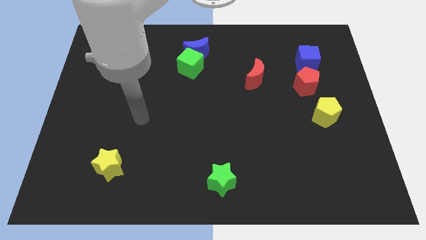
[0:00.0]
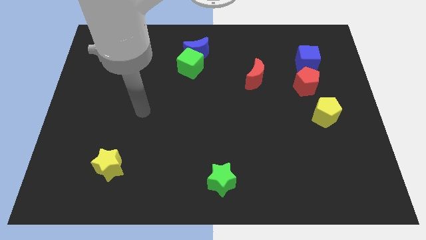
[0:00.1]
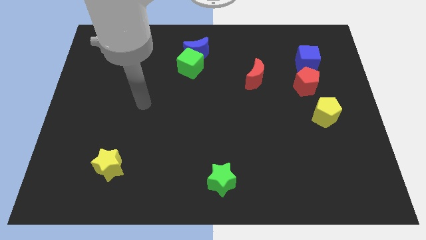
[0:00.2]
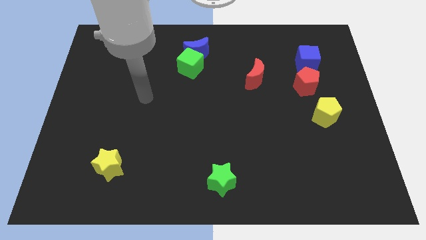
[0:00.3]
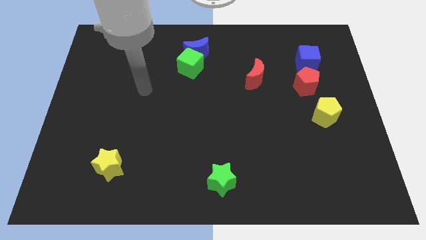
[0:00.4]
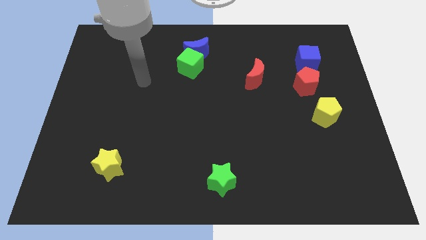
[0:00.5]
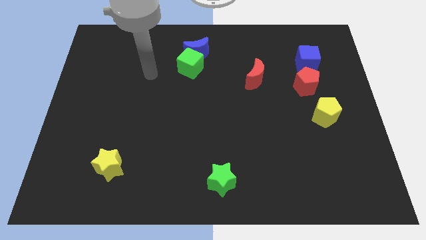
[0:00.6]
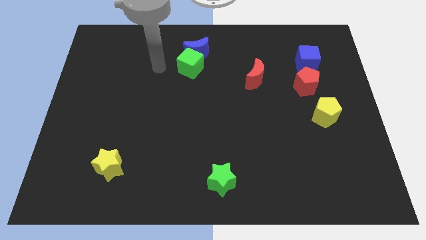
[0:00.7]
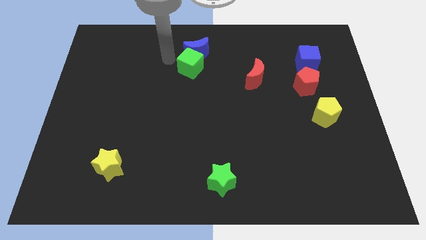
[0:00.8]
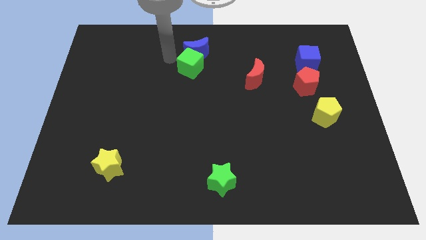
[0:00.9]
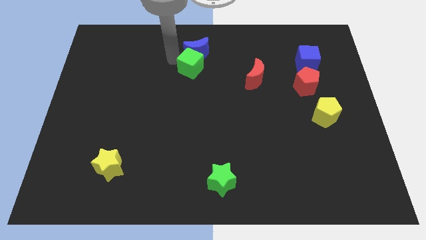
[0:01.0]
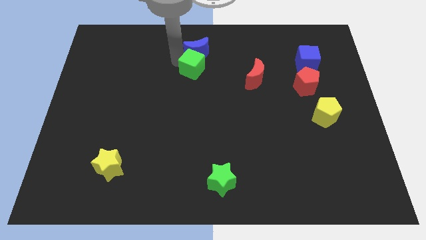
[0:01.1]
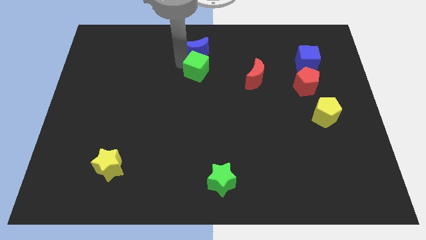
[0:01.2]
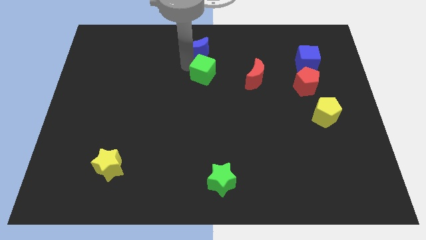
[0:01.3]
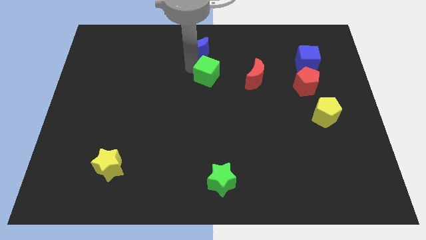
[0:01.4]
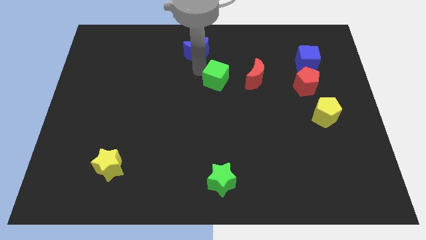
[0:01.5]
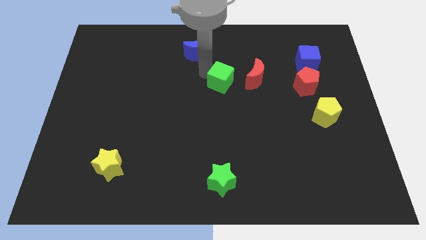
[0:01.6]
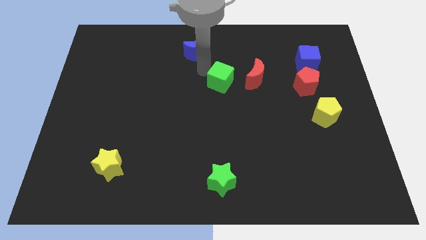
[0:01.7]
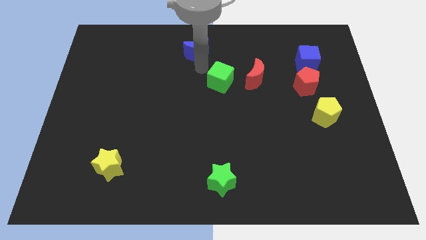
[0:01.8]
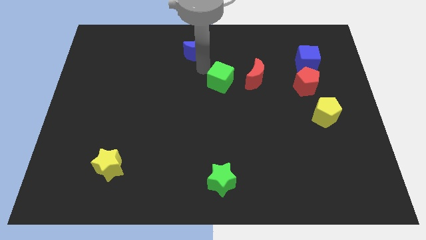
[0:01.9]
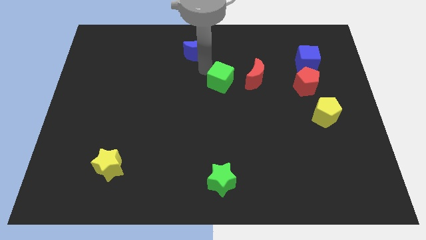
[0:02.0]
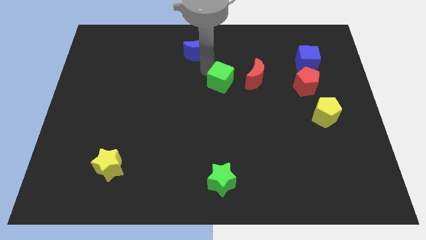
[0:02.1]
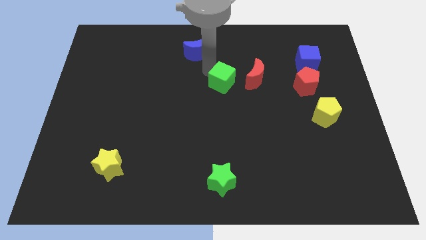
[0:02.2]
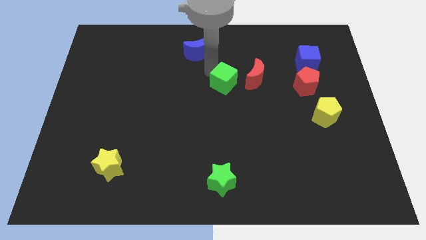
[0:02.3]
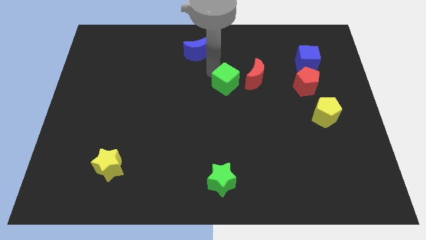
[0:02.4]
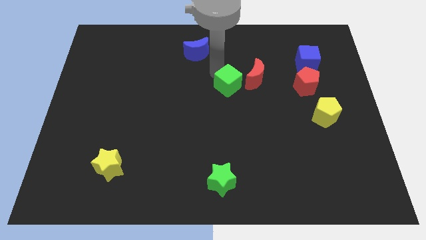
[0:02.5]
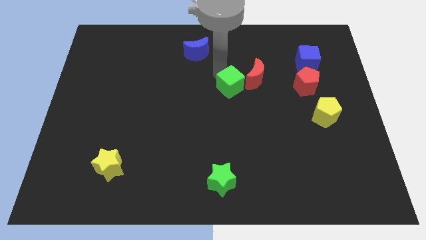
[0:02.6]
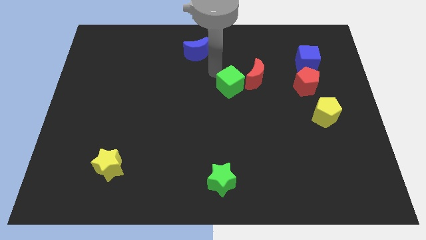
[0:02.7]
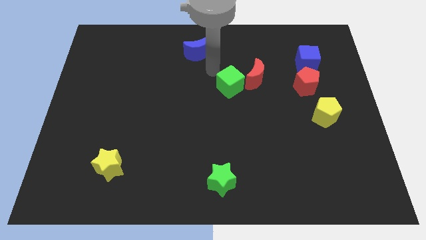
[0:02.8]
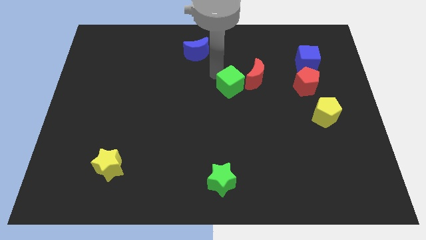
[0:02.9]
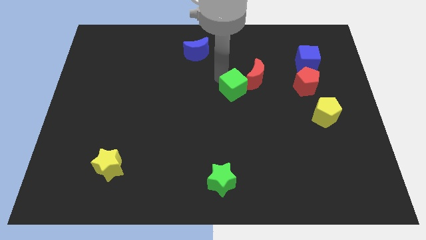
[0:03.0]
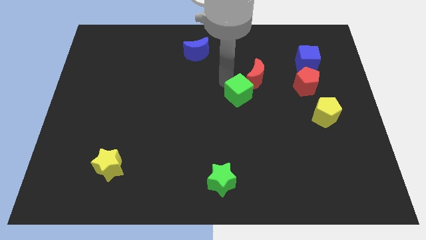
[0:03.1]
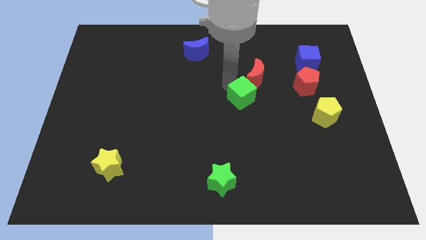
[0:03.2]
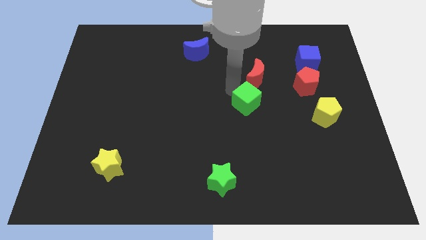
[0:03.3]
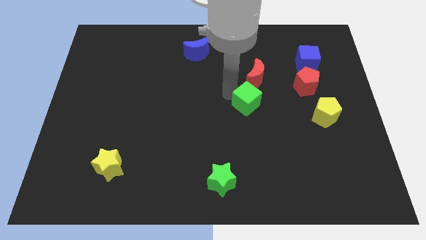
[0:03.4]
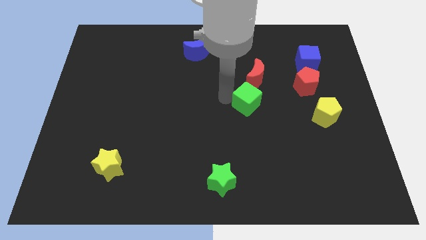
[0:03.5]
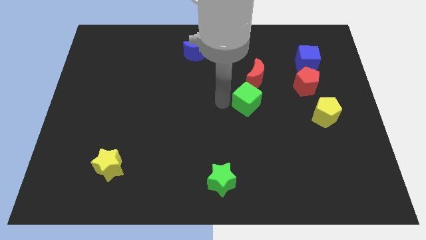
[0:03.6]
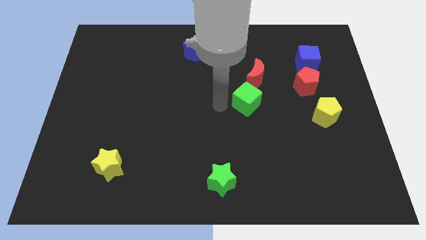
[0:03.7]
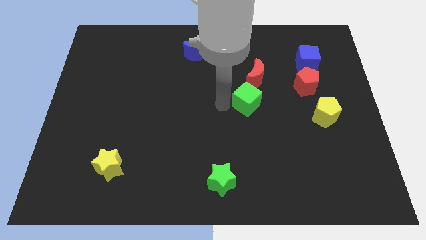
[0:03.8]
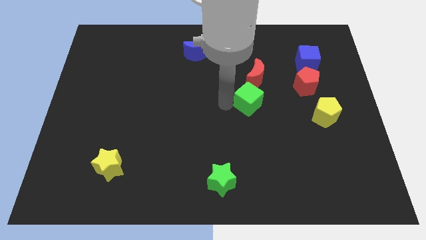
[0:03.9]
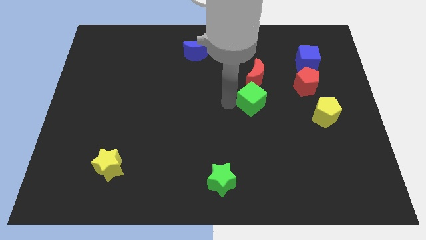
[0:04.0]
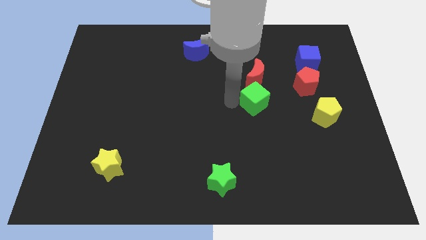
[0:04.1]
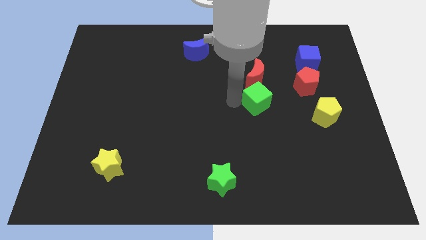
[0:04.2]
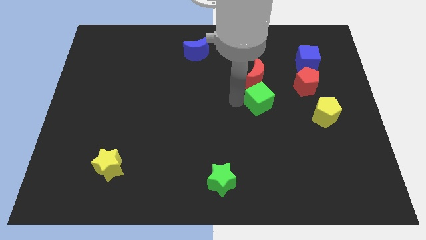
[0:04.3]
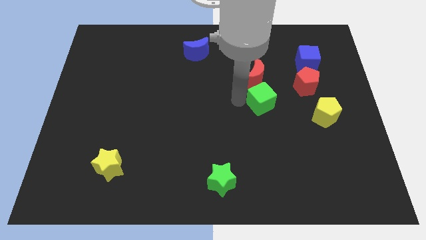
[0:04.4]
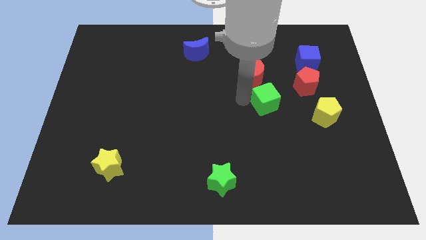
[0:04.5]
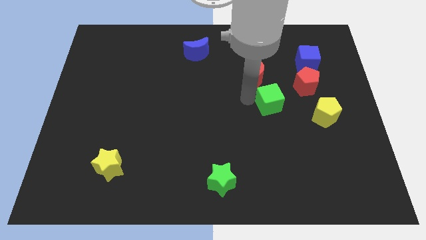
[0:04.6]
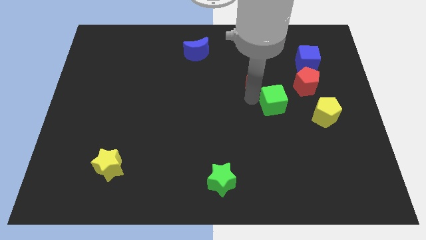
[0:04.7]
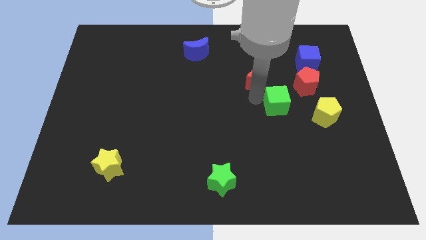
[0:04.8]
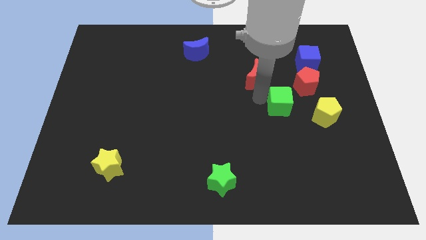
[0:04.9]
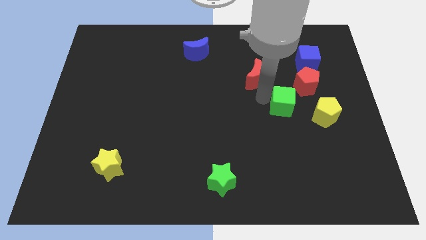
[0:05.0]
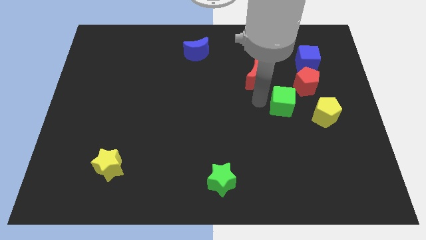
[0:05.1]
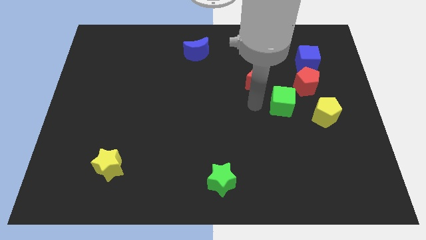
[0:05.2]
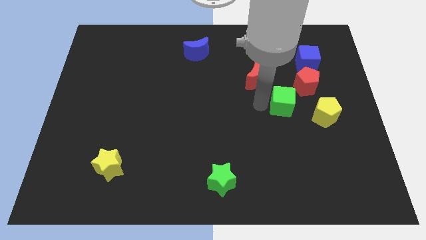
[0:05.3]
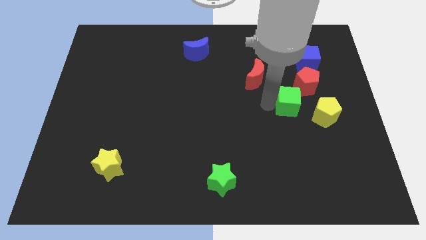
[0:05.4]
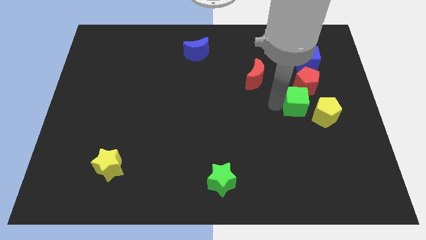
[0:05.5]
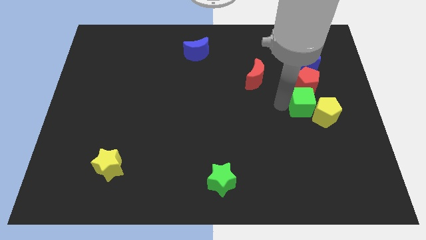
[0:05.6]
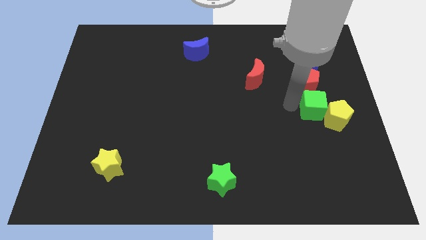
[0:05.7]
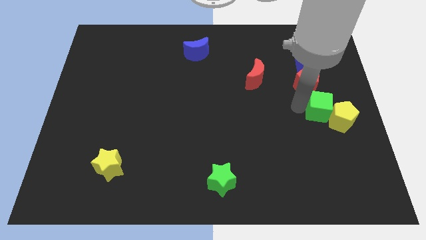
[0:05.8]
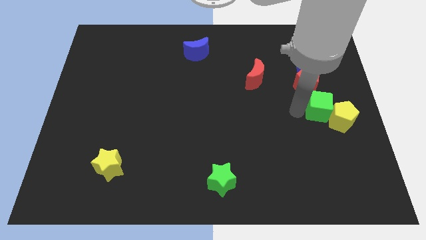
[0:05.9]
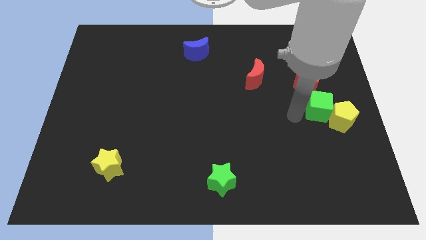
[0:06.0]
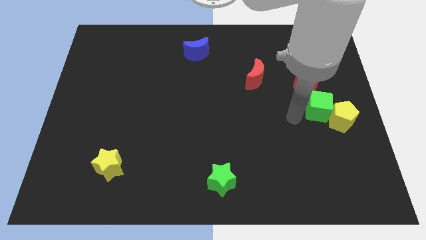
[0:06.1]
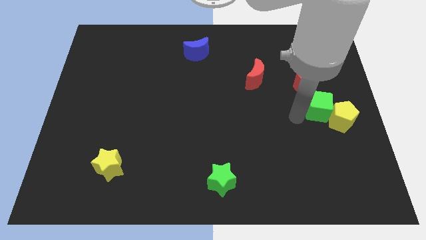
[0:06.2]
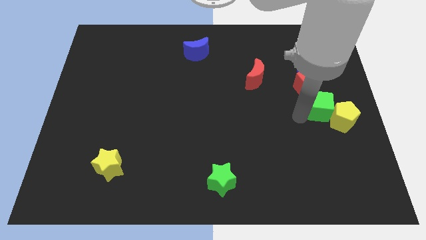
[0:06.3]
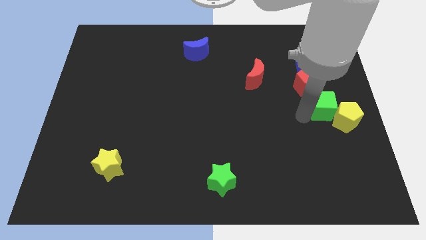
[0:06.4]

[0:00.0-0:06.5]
push the green cube to the right side

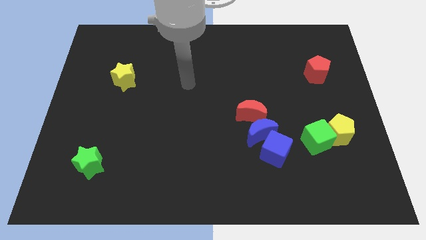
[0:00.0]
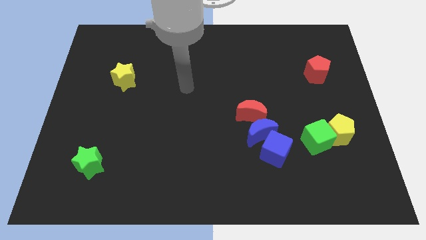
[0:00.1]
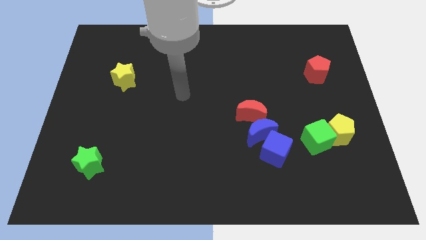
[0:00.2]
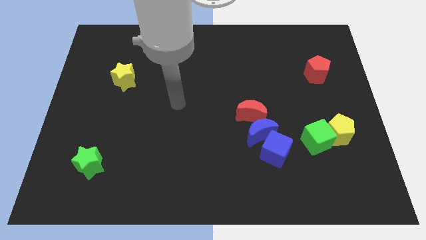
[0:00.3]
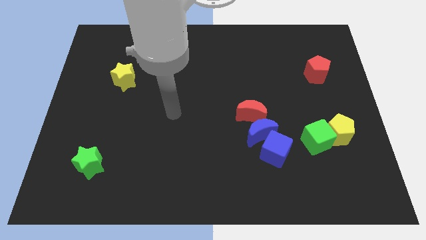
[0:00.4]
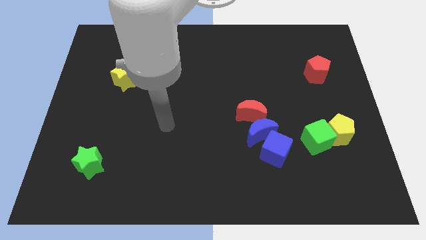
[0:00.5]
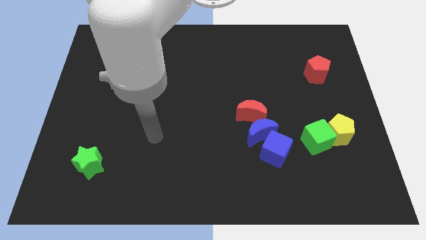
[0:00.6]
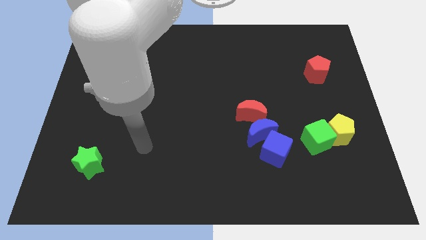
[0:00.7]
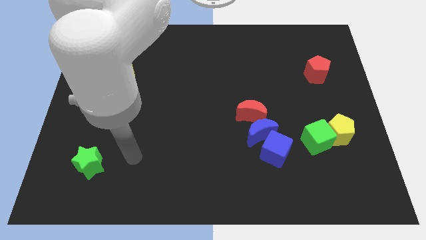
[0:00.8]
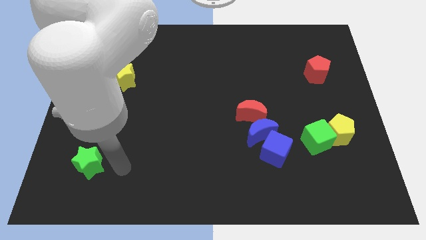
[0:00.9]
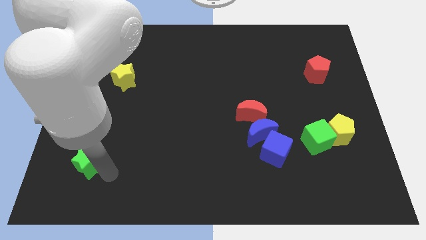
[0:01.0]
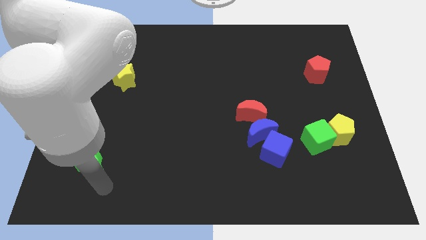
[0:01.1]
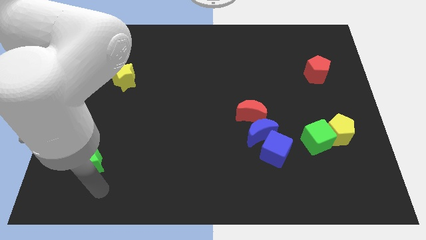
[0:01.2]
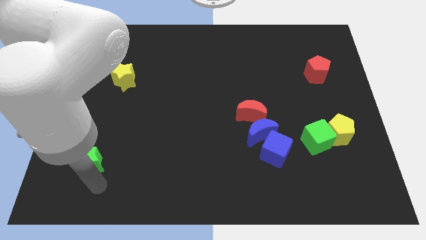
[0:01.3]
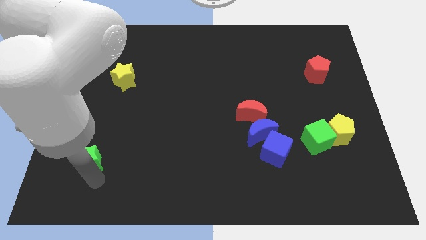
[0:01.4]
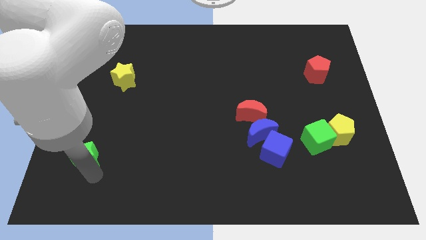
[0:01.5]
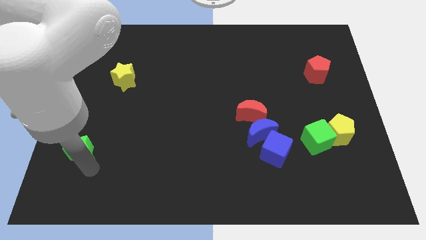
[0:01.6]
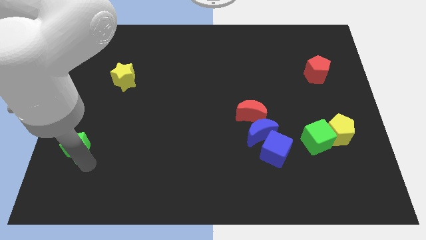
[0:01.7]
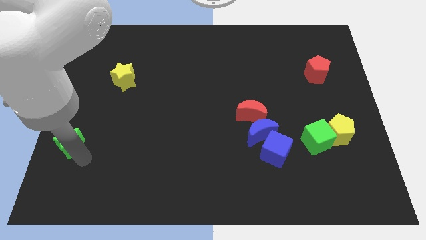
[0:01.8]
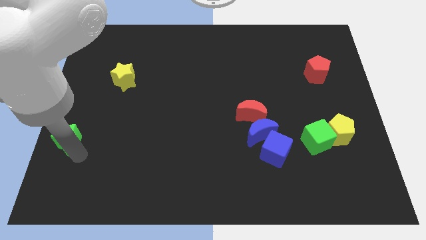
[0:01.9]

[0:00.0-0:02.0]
push the green star to the left side of the board
